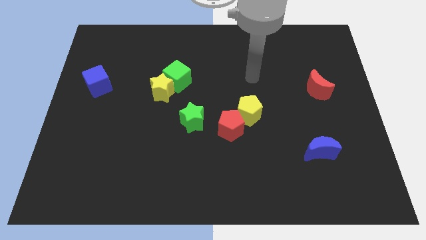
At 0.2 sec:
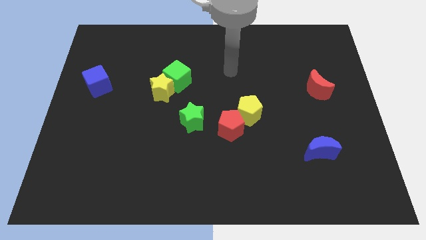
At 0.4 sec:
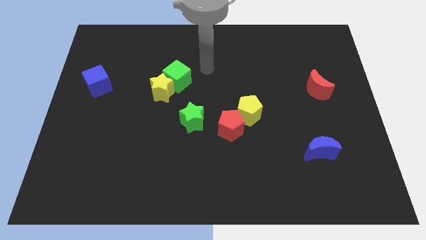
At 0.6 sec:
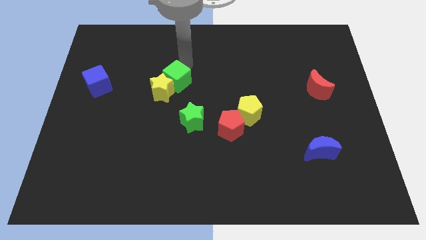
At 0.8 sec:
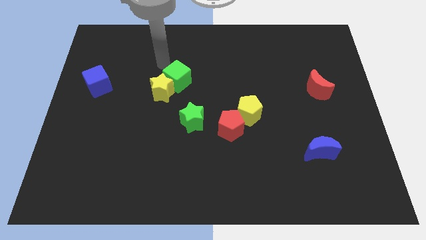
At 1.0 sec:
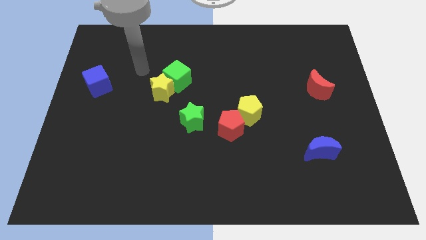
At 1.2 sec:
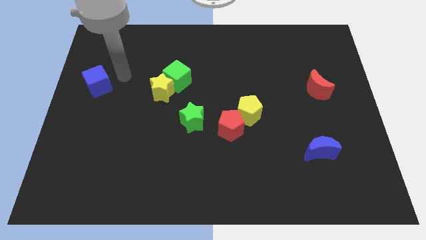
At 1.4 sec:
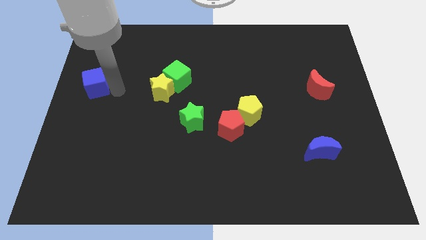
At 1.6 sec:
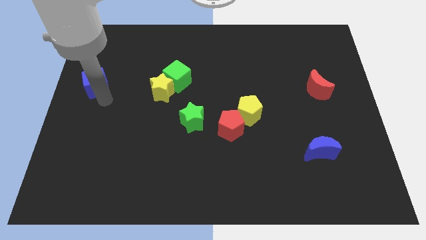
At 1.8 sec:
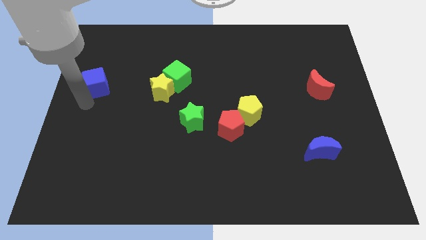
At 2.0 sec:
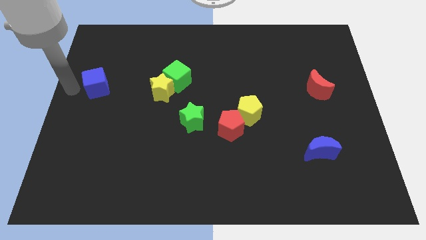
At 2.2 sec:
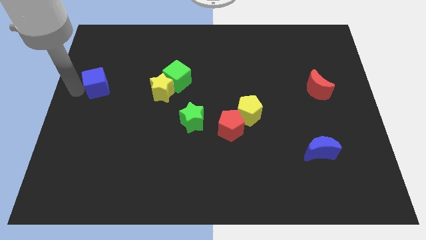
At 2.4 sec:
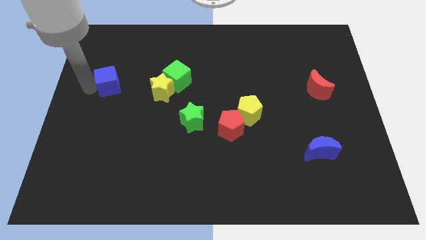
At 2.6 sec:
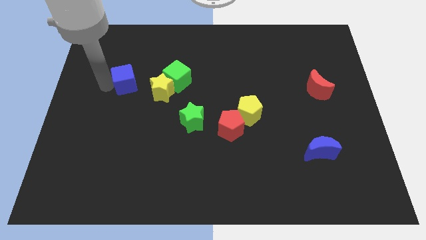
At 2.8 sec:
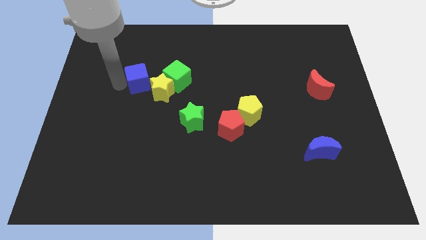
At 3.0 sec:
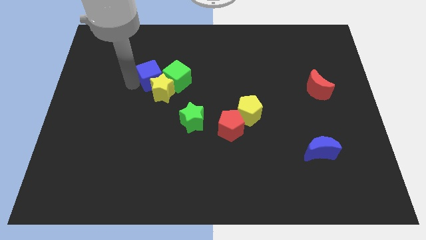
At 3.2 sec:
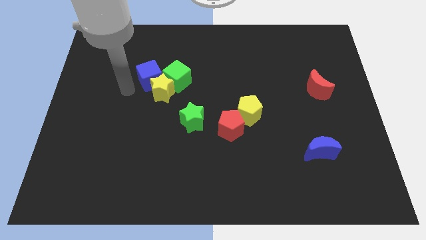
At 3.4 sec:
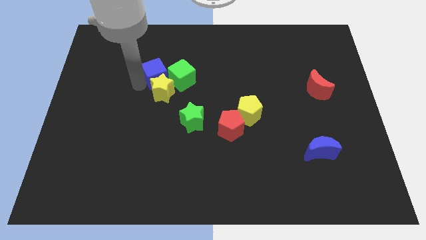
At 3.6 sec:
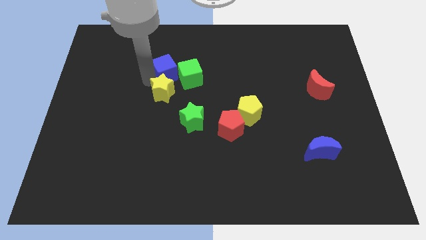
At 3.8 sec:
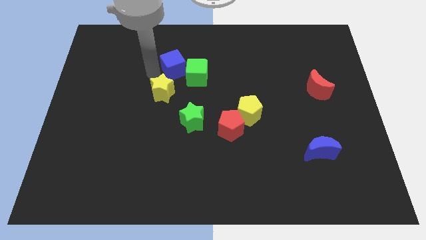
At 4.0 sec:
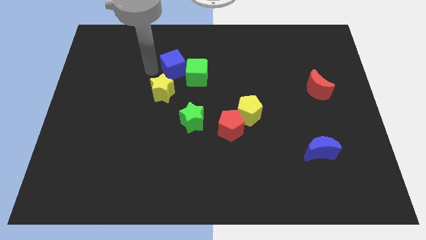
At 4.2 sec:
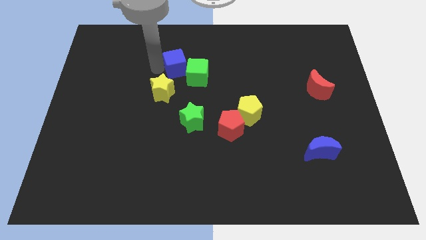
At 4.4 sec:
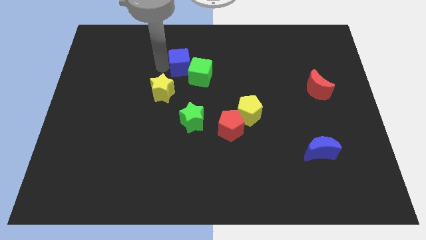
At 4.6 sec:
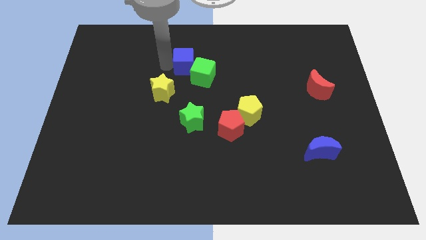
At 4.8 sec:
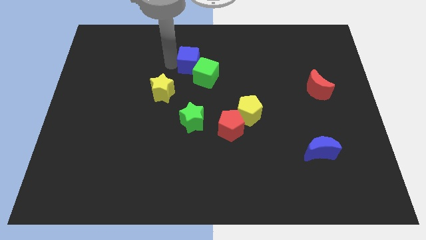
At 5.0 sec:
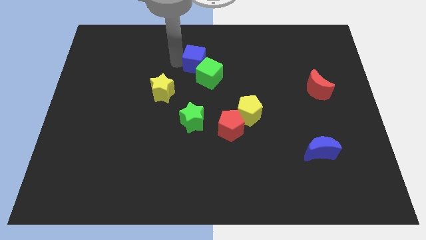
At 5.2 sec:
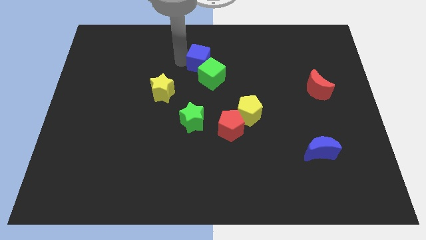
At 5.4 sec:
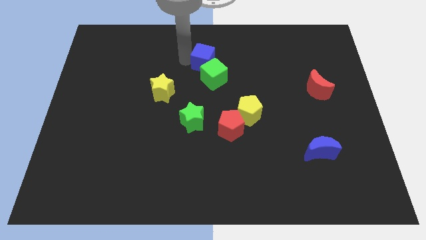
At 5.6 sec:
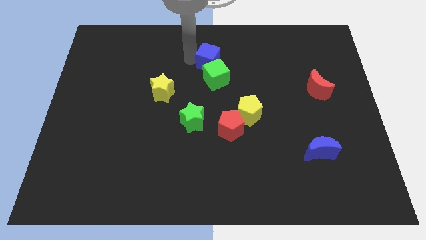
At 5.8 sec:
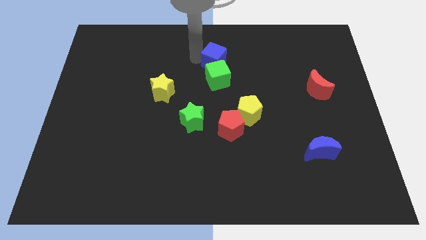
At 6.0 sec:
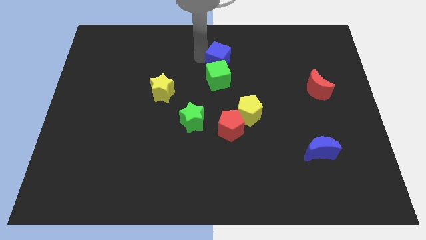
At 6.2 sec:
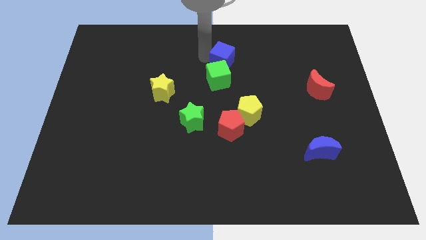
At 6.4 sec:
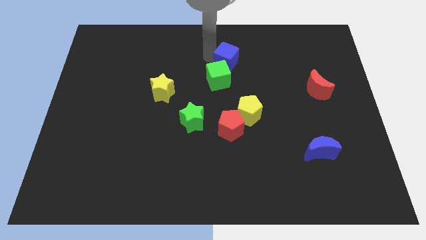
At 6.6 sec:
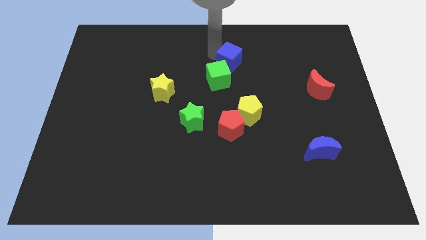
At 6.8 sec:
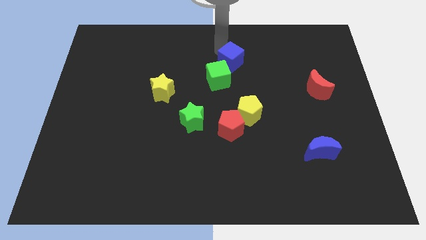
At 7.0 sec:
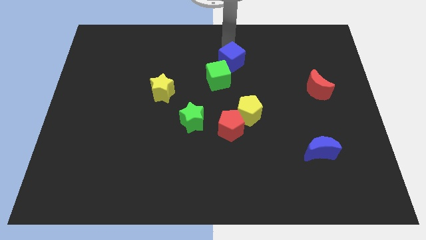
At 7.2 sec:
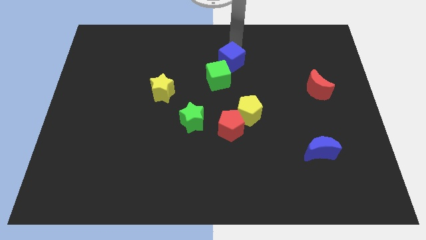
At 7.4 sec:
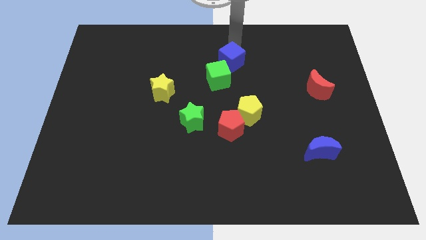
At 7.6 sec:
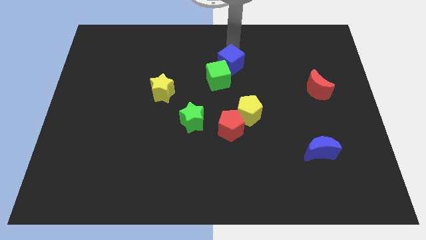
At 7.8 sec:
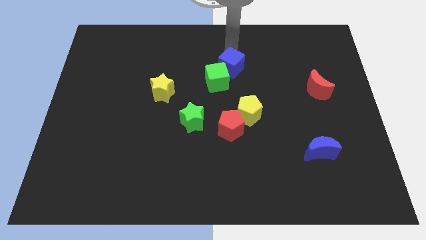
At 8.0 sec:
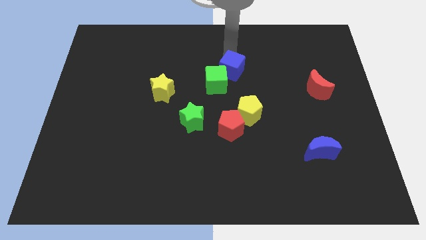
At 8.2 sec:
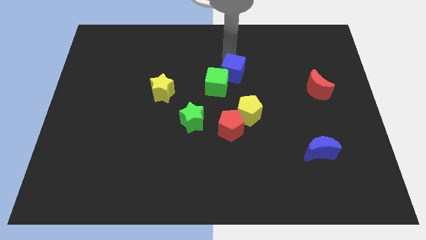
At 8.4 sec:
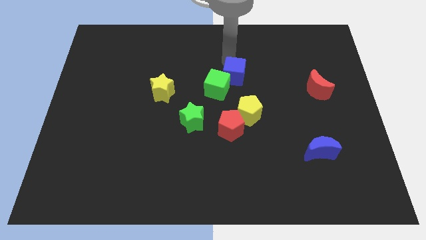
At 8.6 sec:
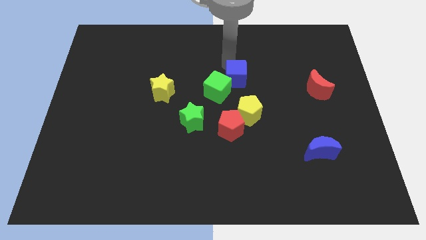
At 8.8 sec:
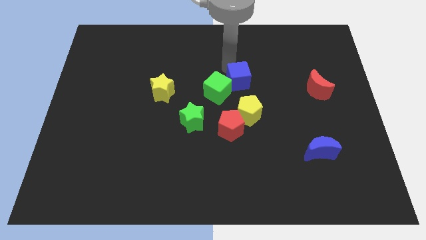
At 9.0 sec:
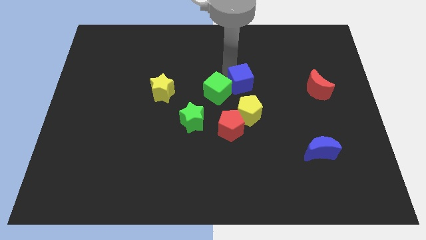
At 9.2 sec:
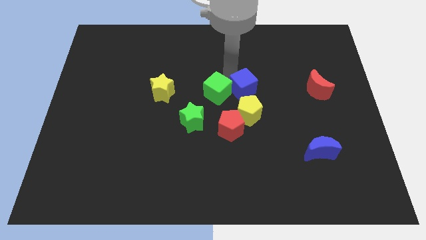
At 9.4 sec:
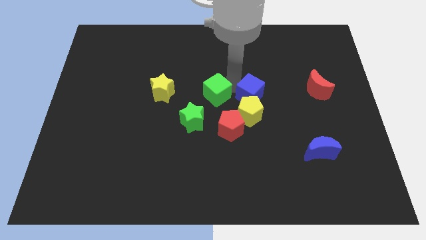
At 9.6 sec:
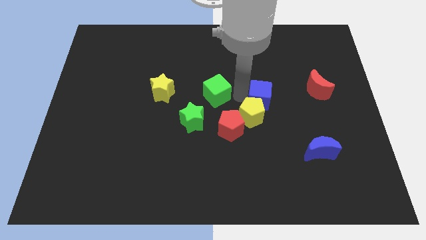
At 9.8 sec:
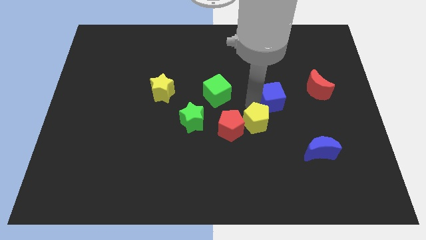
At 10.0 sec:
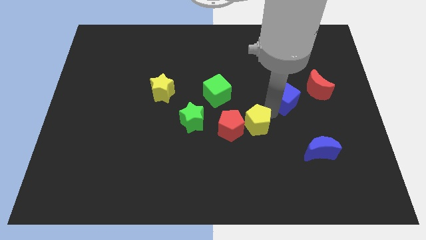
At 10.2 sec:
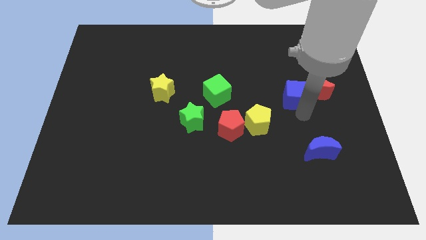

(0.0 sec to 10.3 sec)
slide the blue cube close to the red moon

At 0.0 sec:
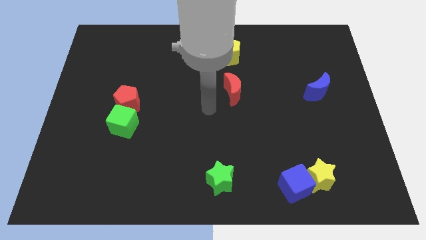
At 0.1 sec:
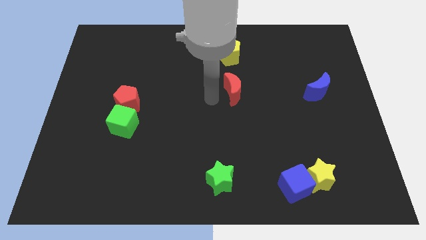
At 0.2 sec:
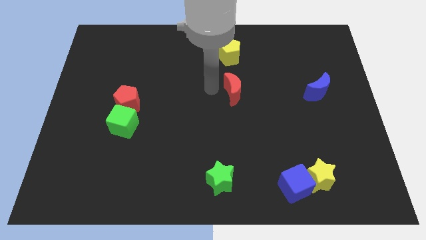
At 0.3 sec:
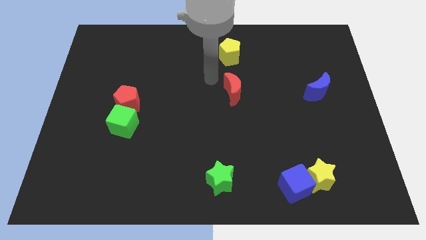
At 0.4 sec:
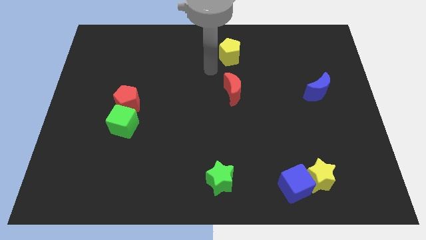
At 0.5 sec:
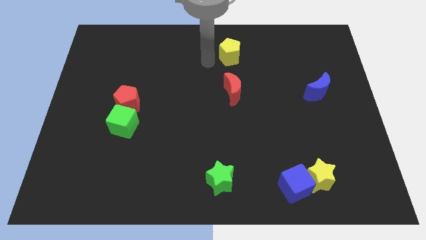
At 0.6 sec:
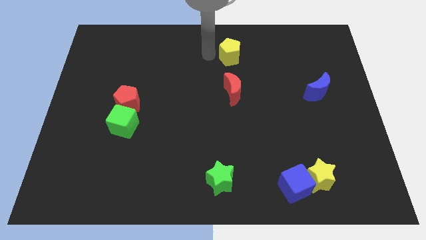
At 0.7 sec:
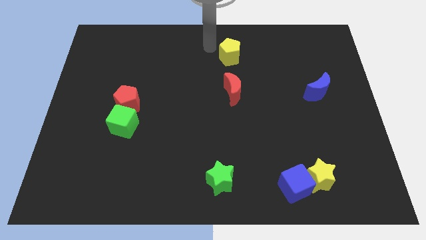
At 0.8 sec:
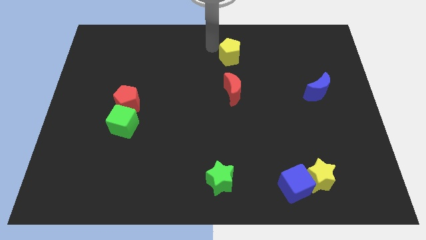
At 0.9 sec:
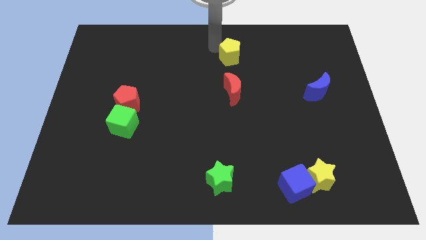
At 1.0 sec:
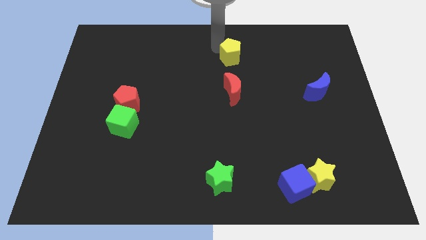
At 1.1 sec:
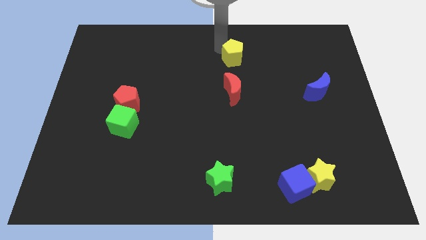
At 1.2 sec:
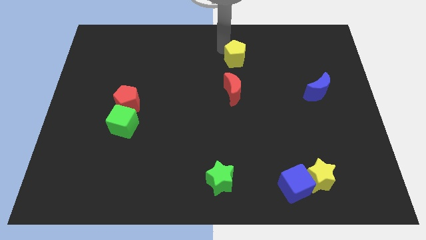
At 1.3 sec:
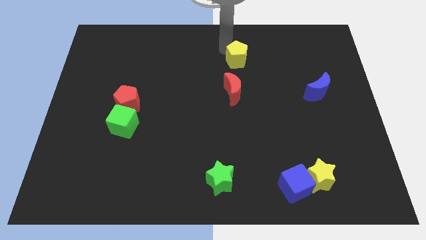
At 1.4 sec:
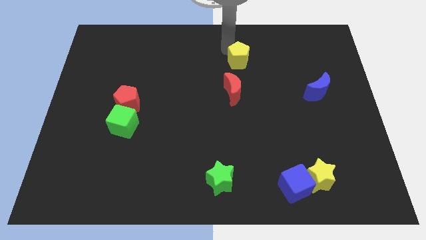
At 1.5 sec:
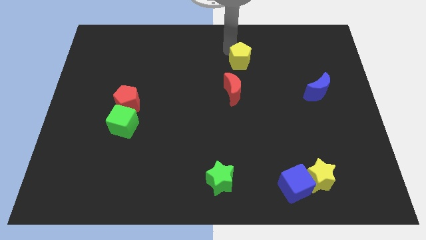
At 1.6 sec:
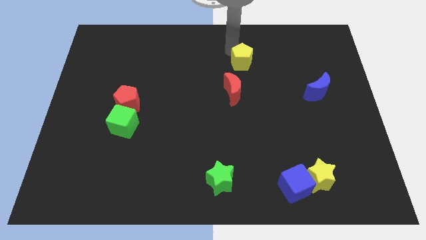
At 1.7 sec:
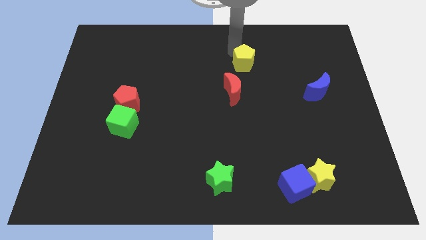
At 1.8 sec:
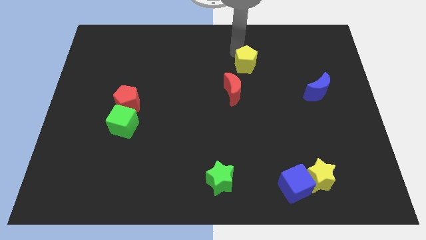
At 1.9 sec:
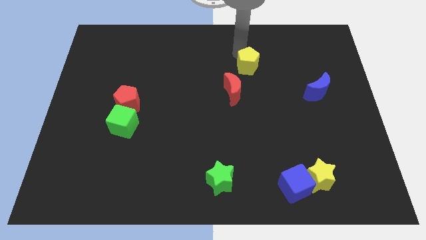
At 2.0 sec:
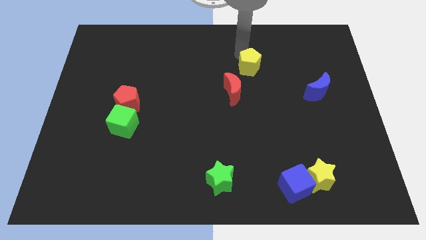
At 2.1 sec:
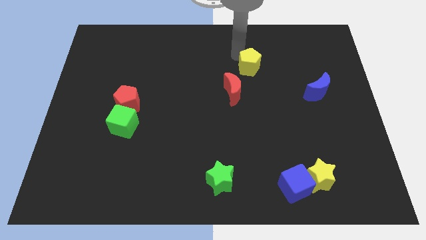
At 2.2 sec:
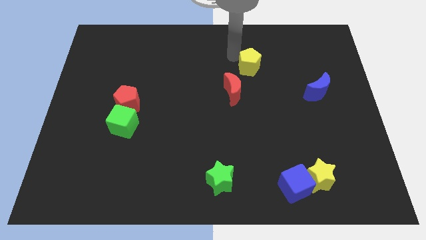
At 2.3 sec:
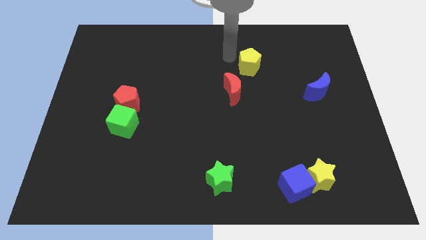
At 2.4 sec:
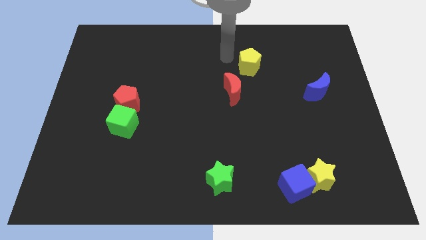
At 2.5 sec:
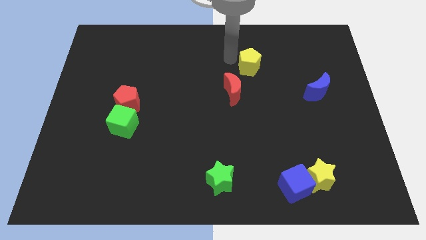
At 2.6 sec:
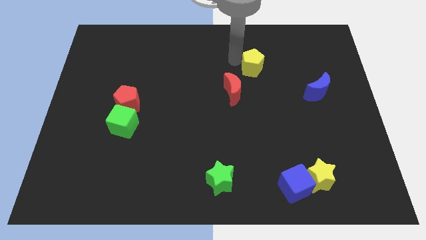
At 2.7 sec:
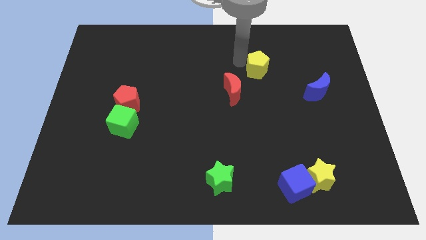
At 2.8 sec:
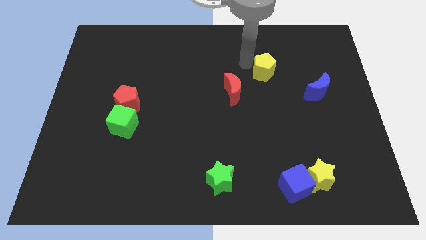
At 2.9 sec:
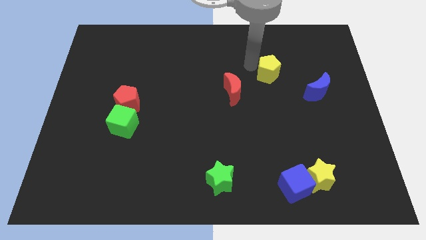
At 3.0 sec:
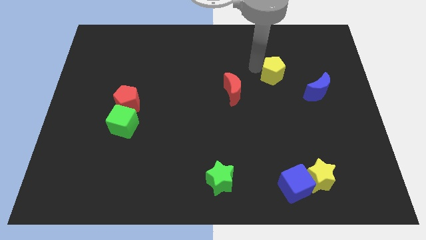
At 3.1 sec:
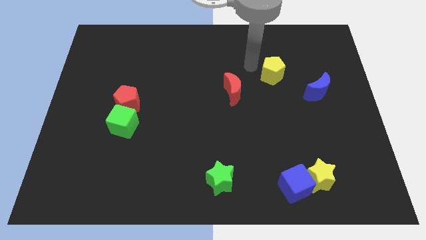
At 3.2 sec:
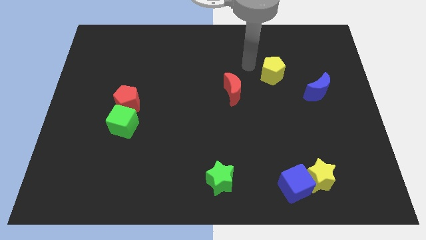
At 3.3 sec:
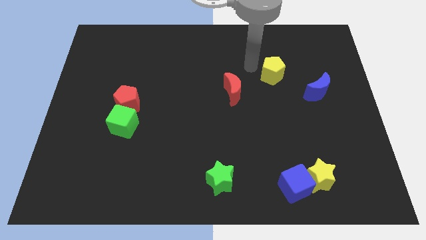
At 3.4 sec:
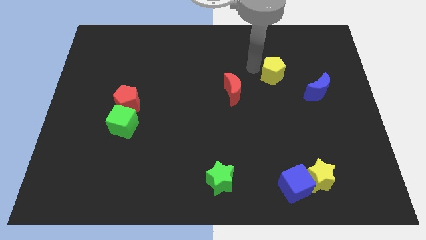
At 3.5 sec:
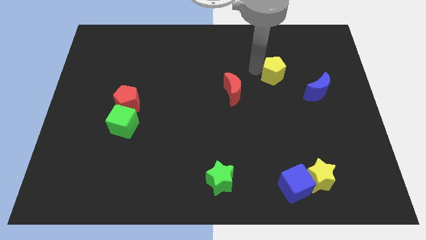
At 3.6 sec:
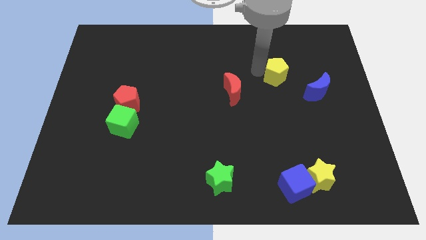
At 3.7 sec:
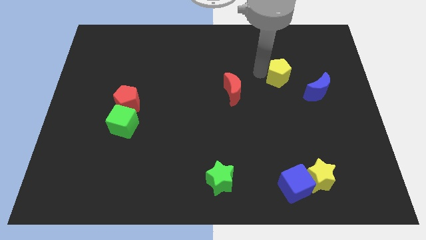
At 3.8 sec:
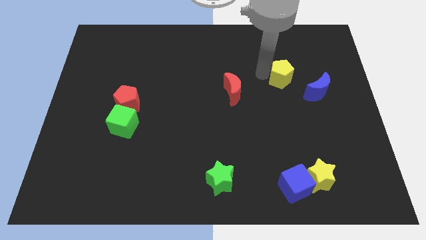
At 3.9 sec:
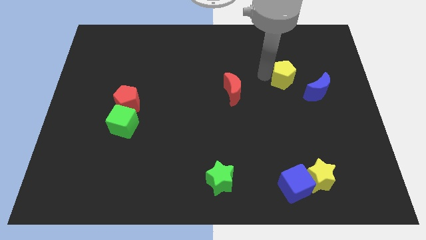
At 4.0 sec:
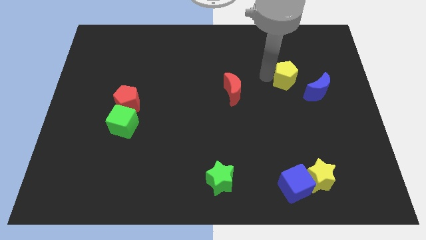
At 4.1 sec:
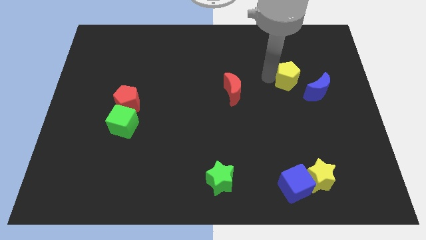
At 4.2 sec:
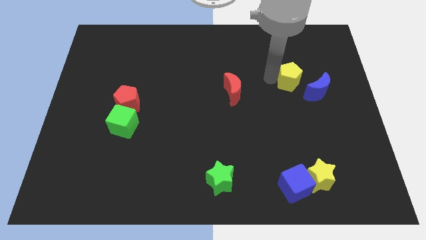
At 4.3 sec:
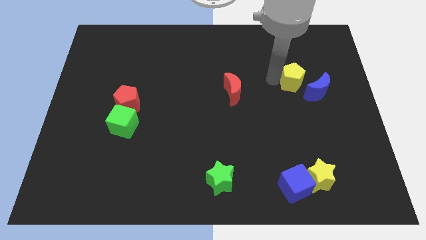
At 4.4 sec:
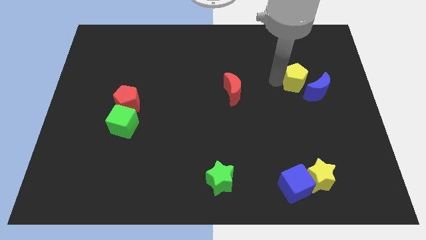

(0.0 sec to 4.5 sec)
push the yellow pentagon to the blue moon
